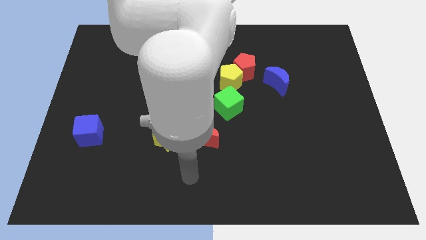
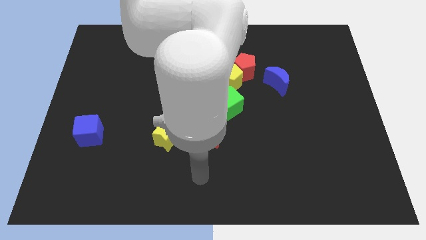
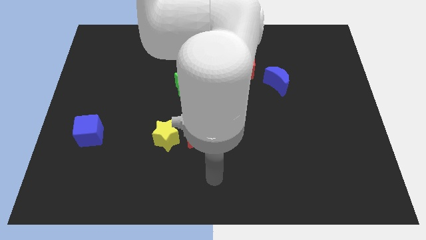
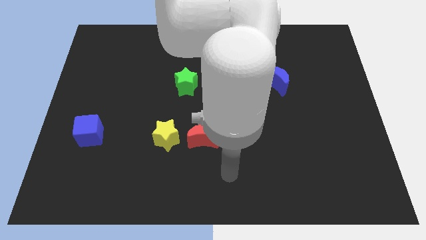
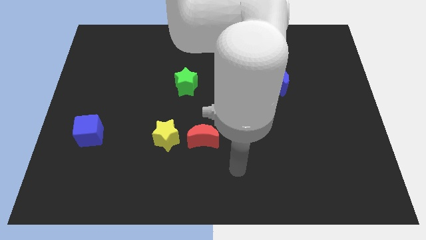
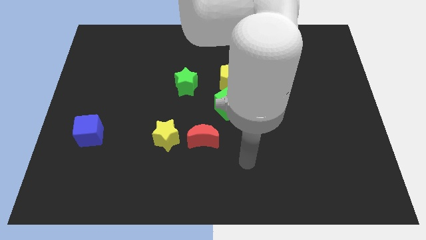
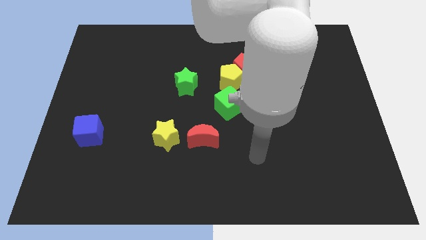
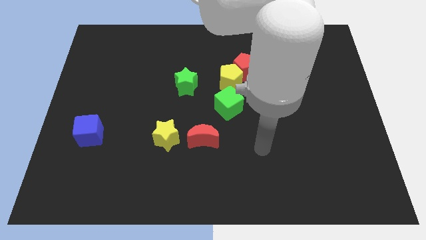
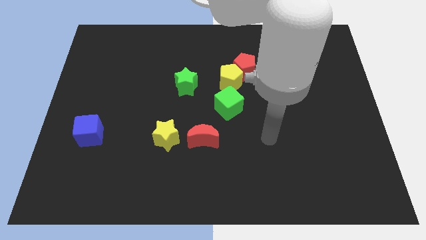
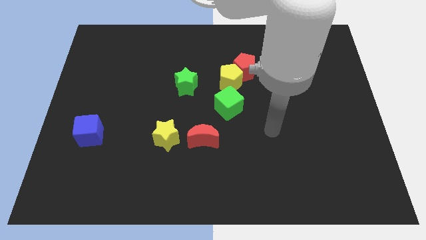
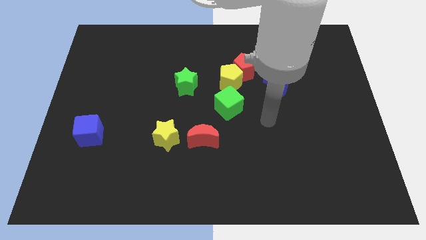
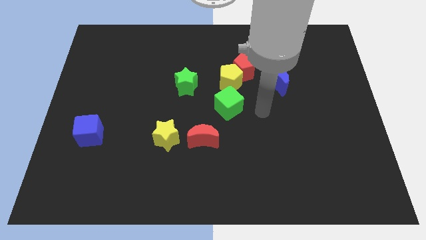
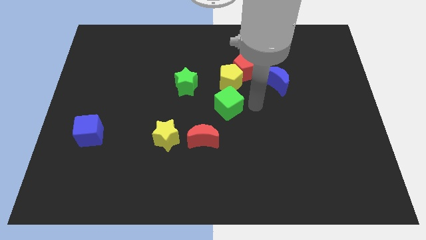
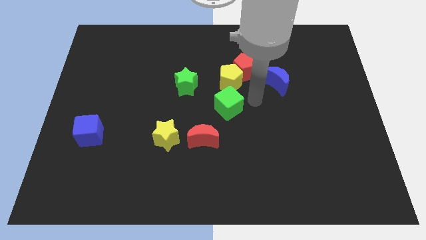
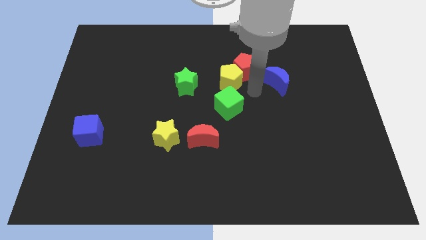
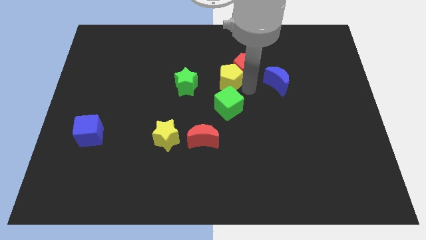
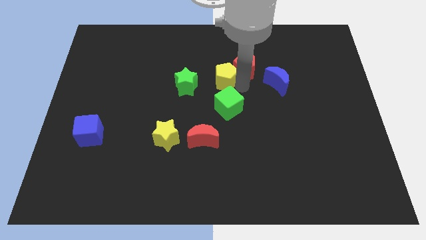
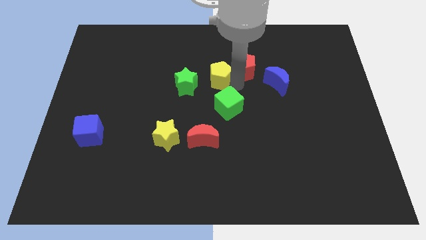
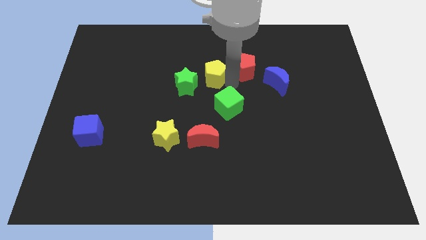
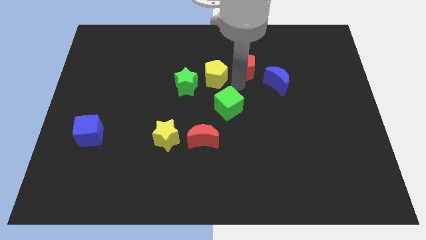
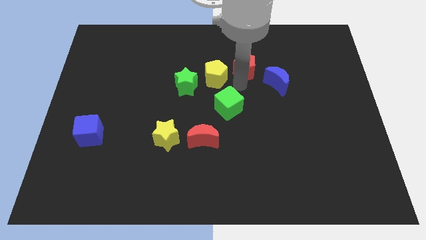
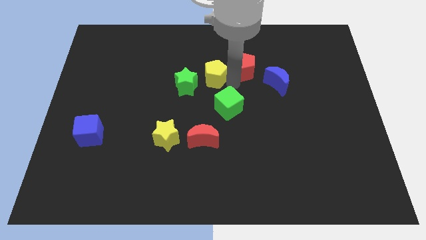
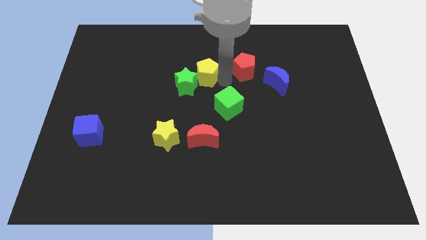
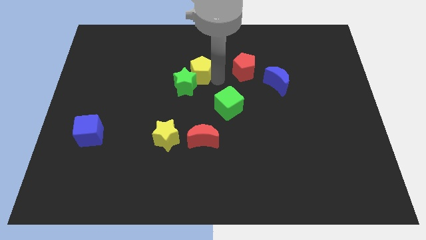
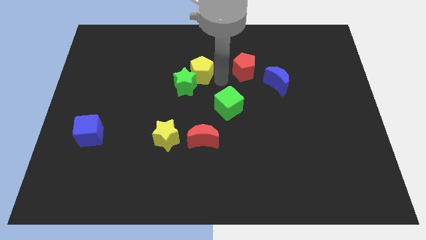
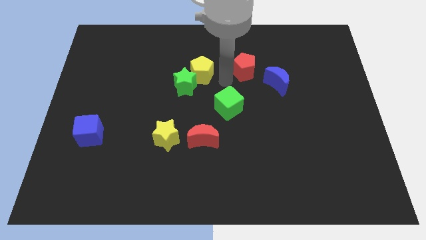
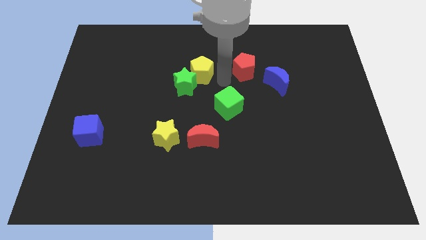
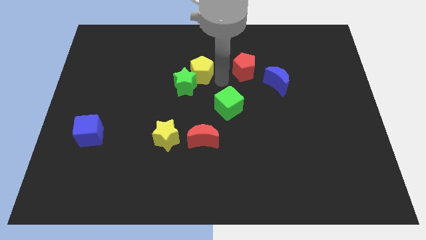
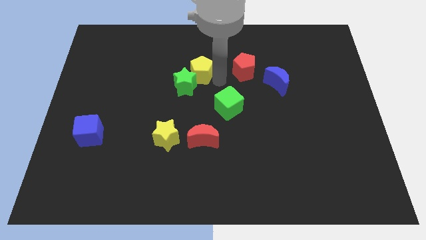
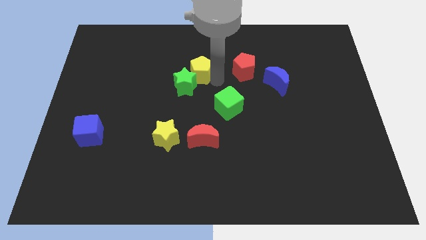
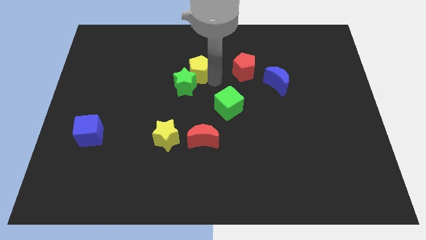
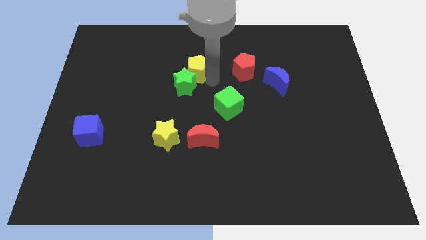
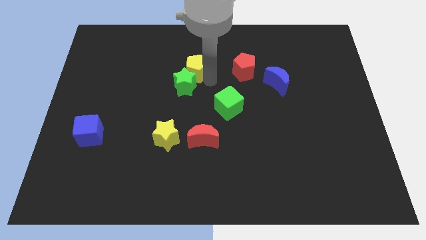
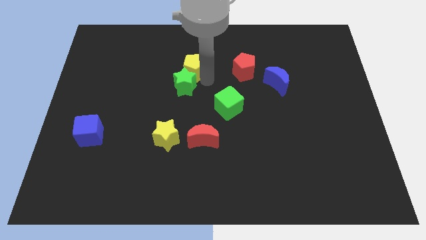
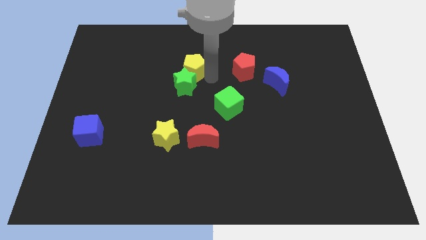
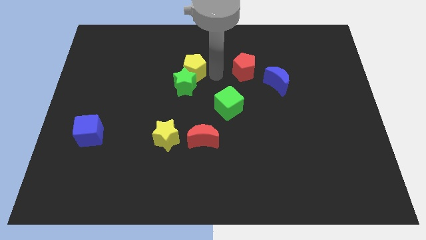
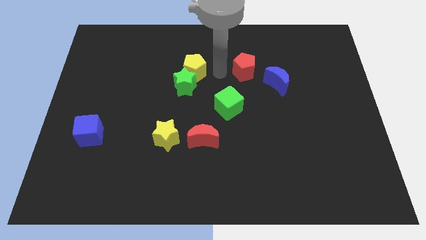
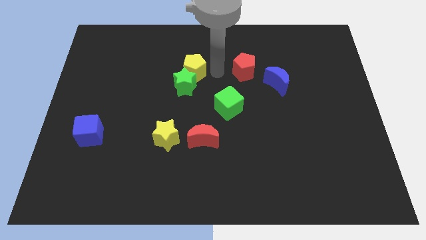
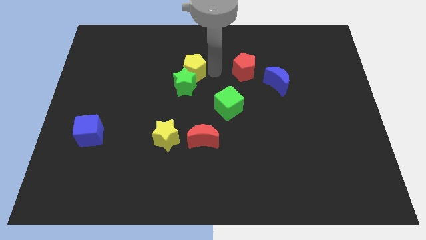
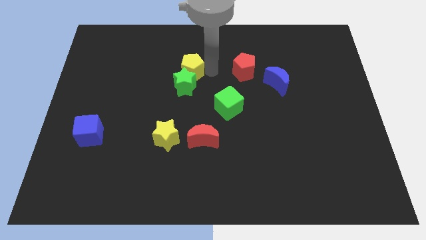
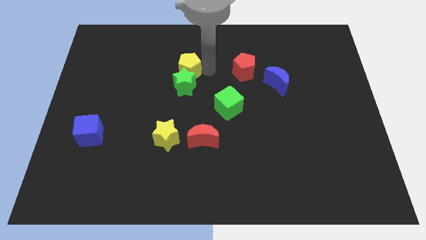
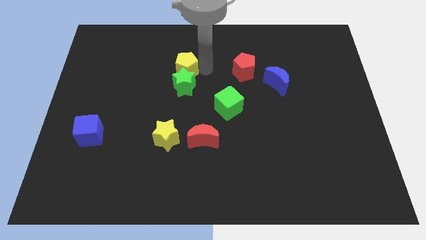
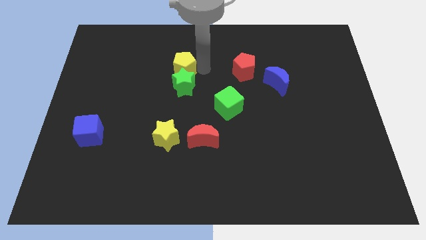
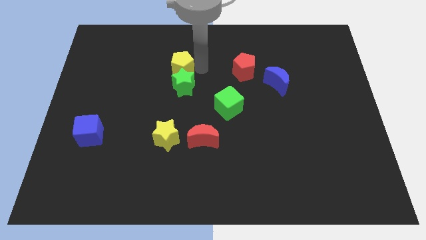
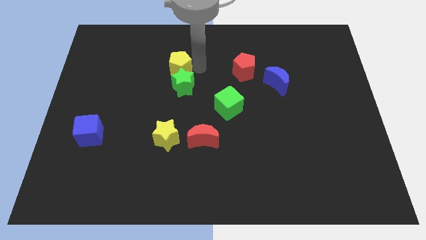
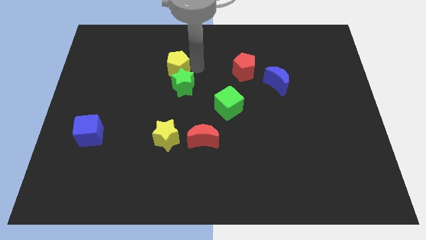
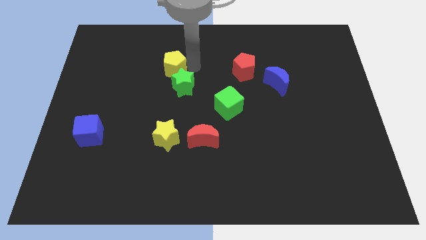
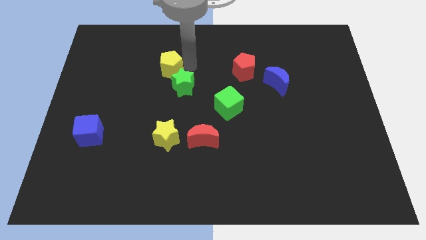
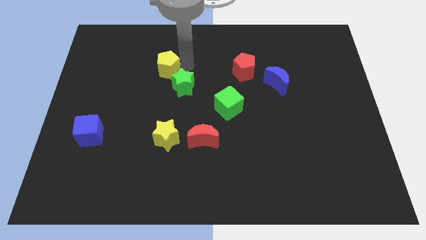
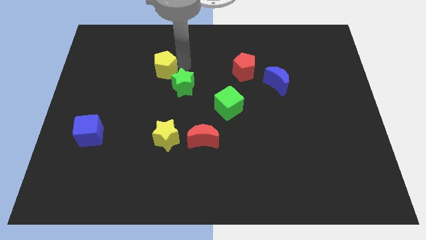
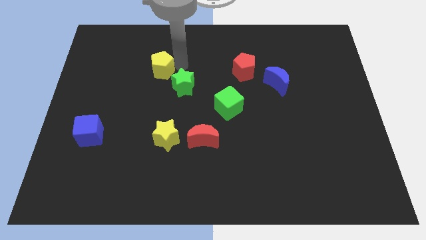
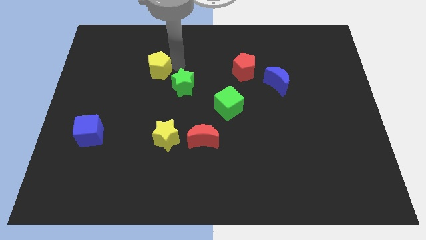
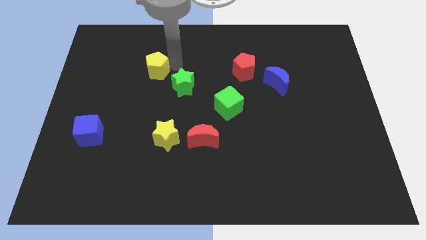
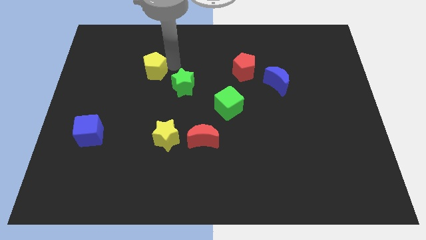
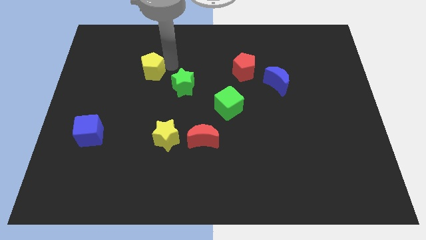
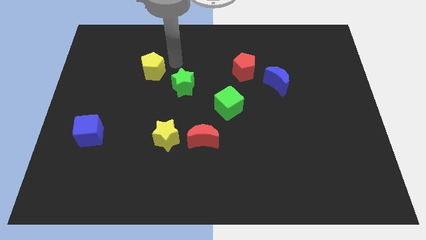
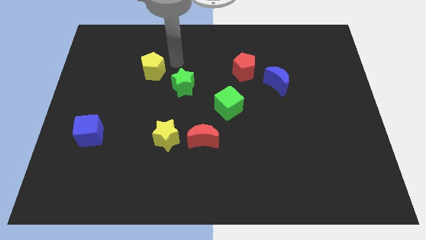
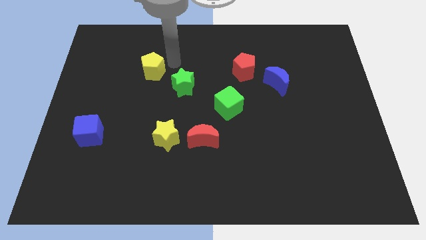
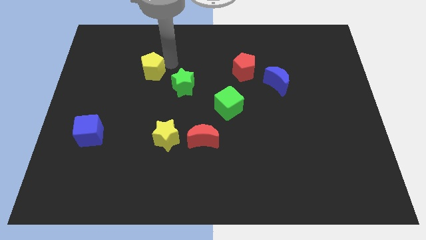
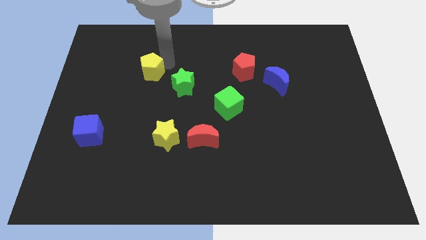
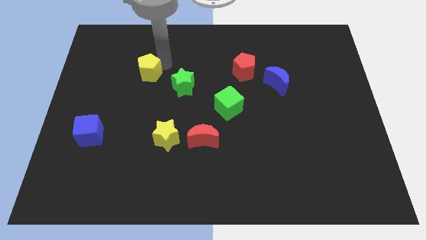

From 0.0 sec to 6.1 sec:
slide the yellow pentagon left

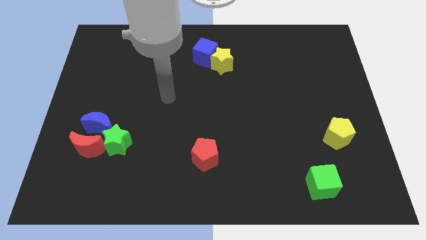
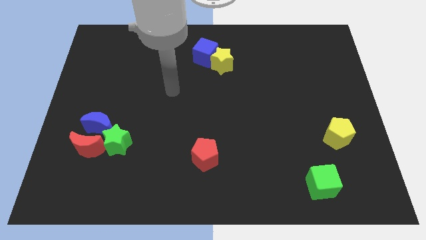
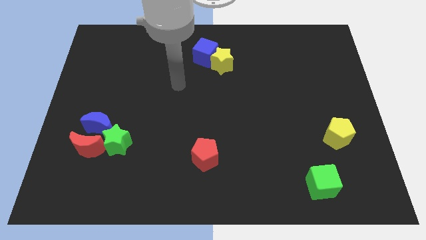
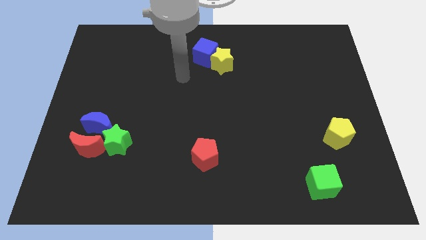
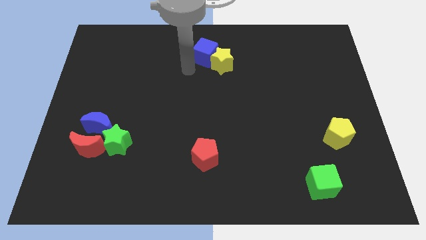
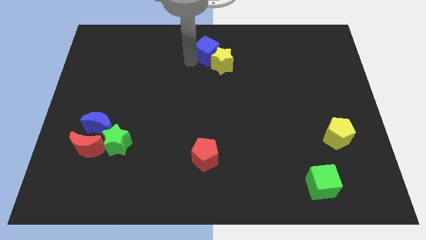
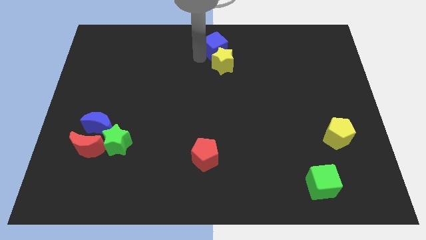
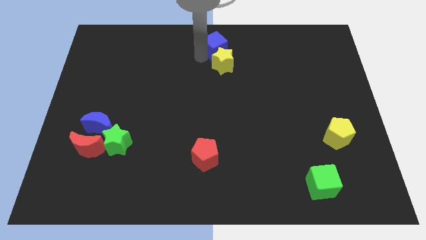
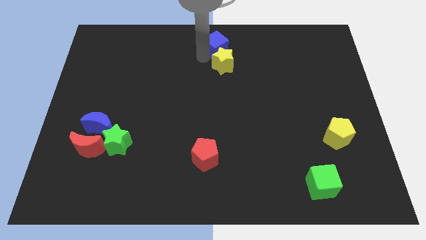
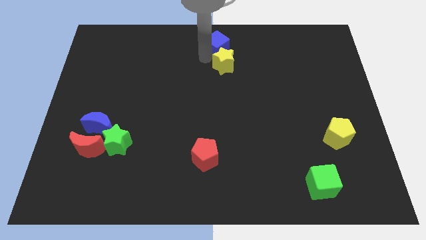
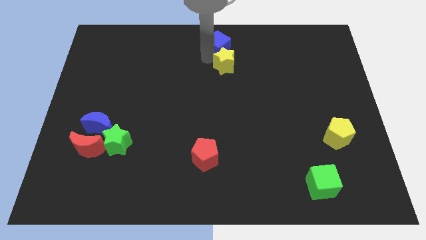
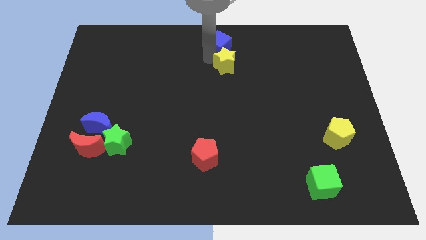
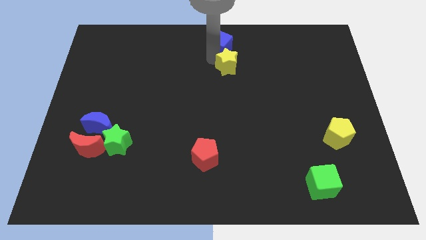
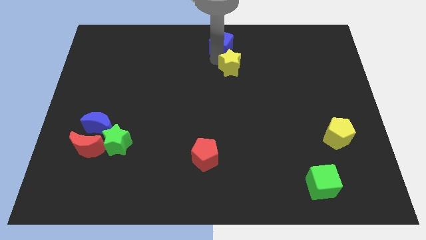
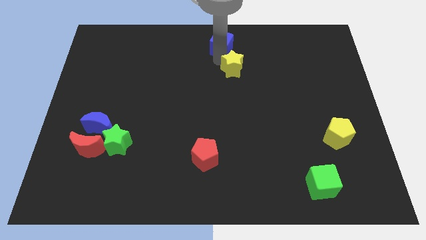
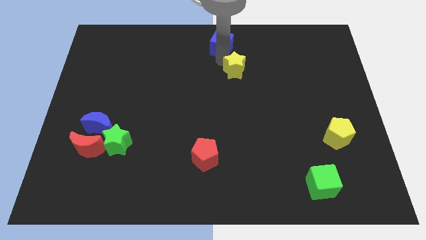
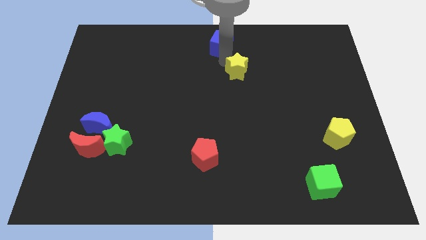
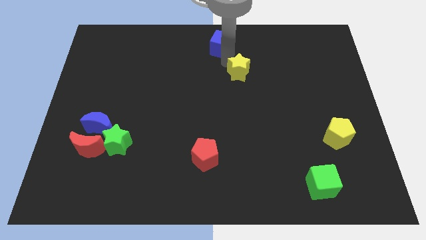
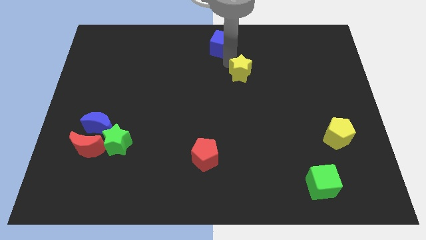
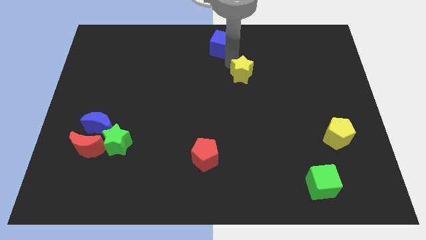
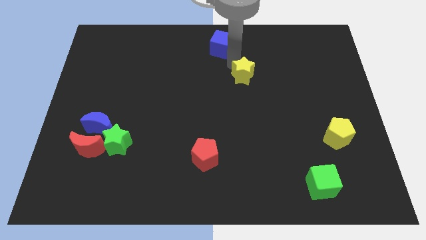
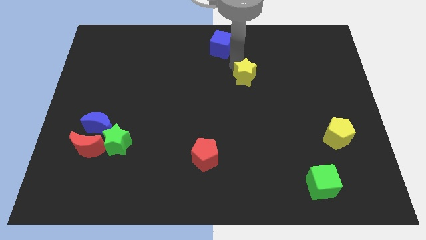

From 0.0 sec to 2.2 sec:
move the yellow star slightly downwards and right diagonally
